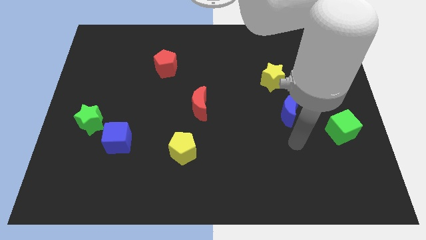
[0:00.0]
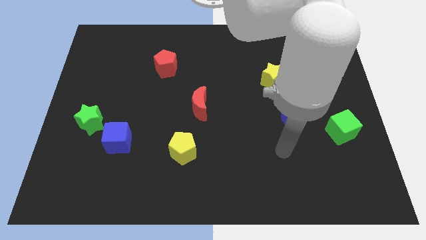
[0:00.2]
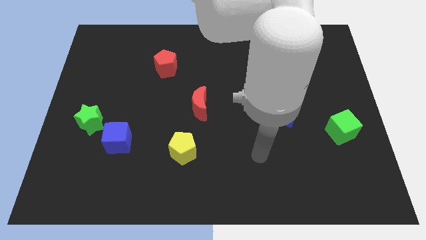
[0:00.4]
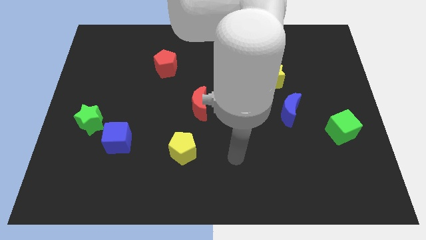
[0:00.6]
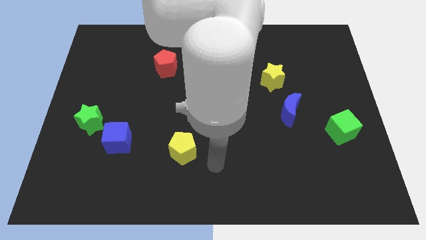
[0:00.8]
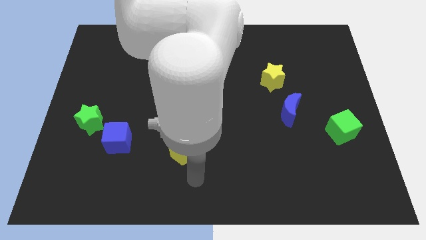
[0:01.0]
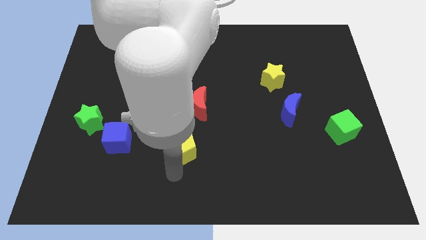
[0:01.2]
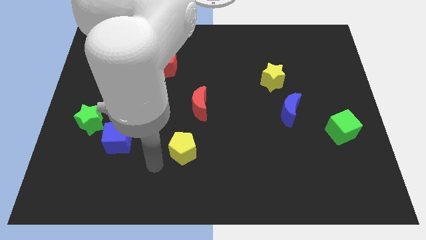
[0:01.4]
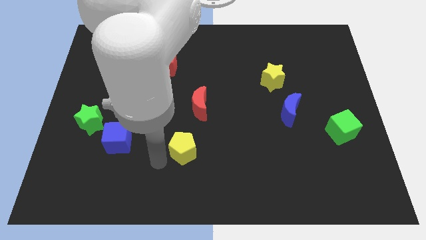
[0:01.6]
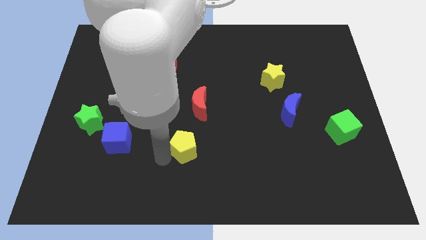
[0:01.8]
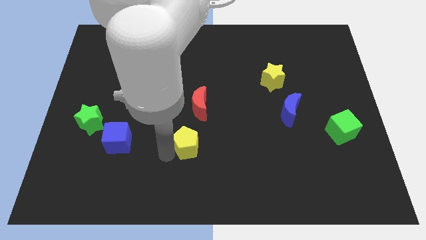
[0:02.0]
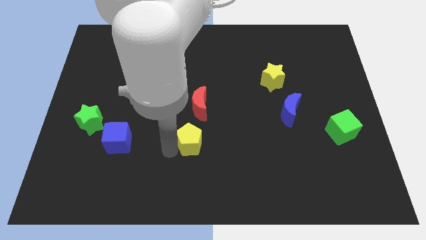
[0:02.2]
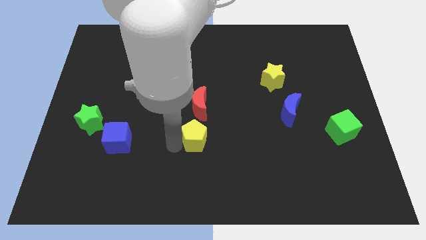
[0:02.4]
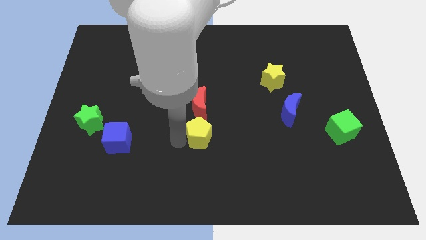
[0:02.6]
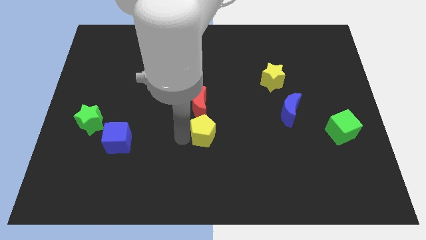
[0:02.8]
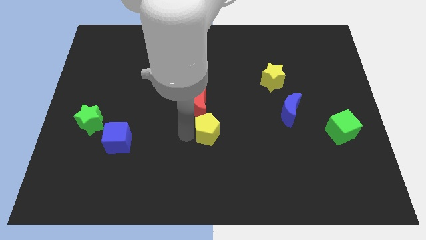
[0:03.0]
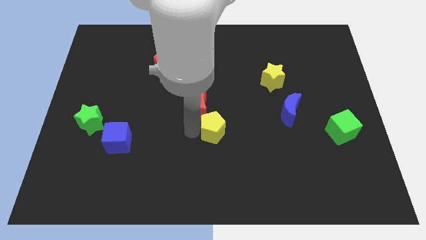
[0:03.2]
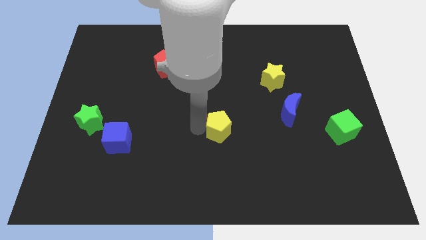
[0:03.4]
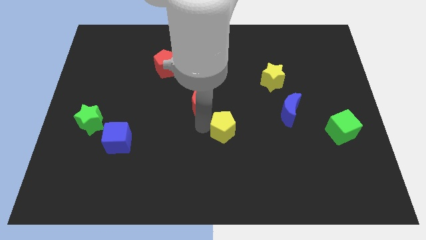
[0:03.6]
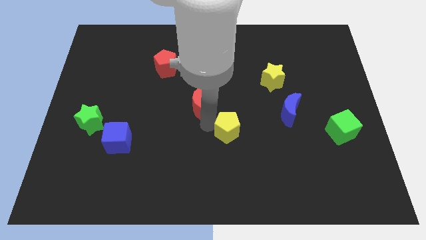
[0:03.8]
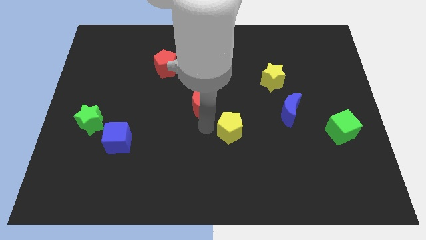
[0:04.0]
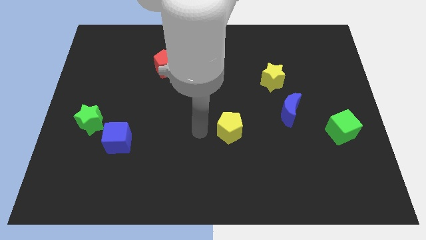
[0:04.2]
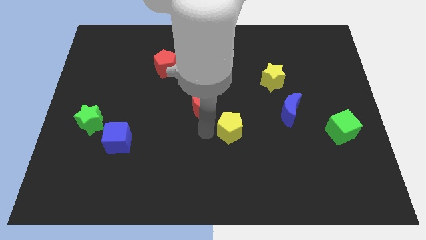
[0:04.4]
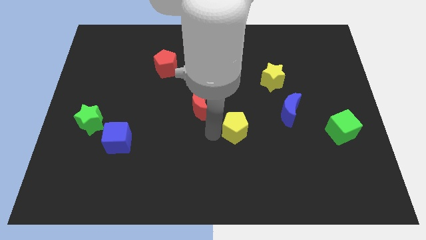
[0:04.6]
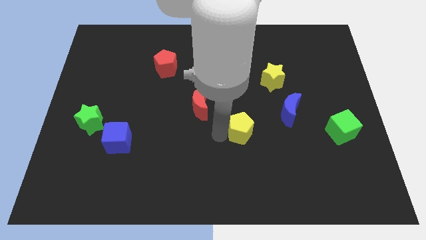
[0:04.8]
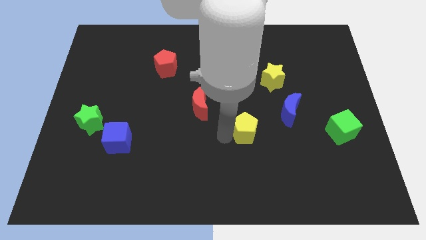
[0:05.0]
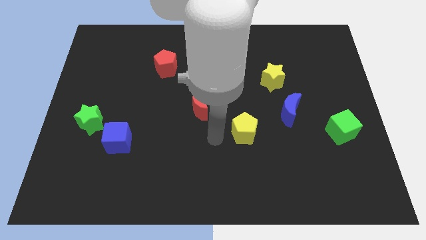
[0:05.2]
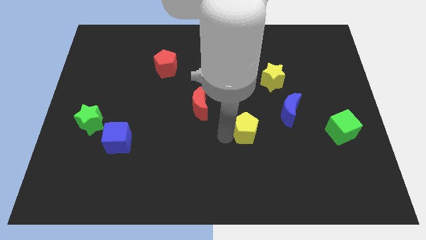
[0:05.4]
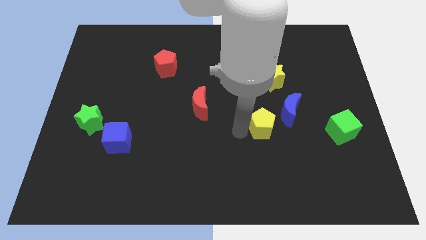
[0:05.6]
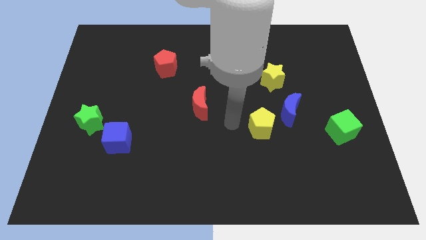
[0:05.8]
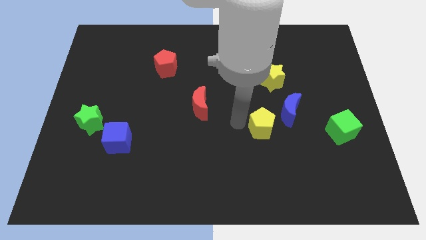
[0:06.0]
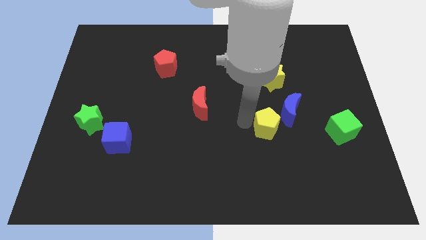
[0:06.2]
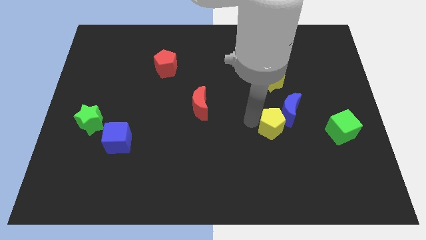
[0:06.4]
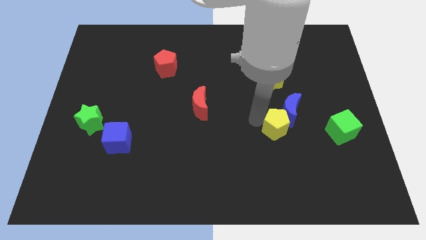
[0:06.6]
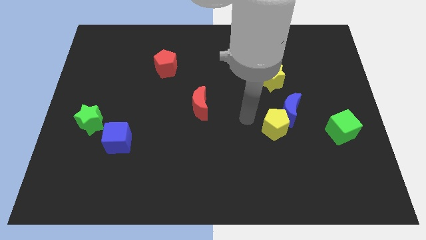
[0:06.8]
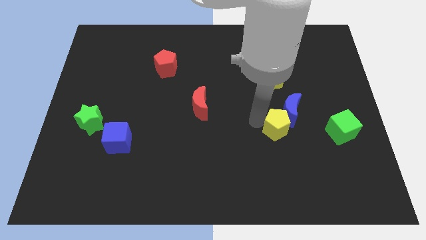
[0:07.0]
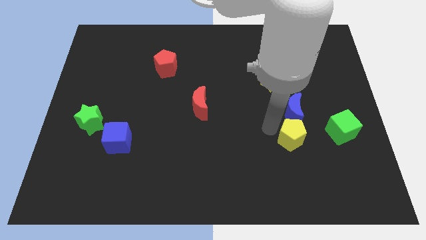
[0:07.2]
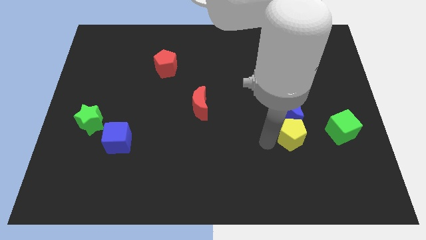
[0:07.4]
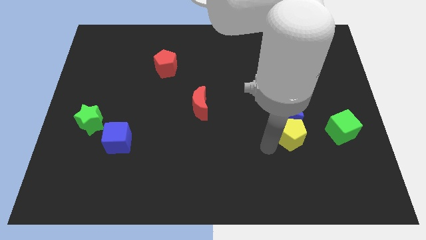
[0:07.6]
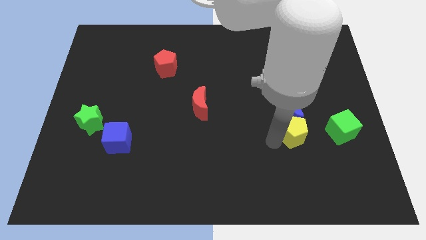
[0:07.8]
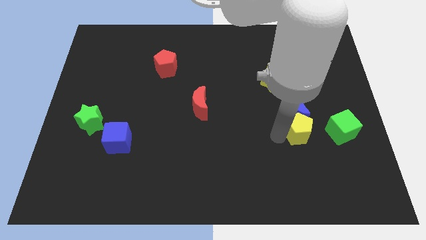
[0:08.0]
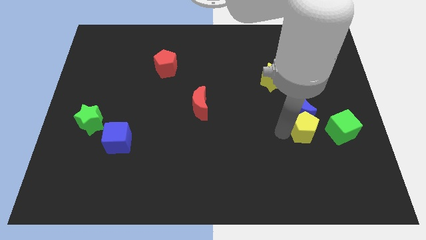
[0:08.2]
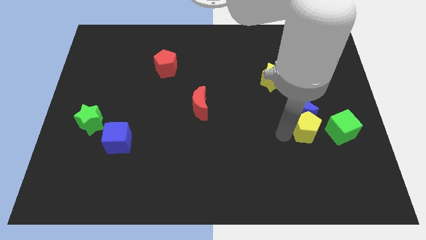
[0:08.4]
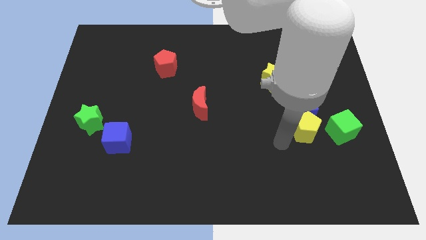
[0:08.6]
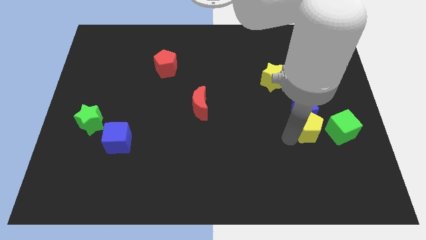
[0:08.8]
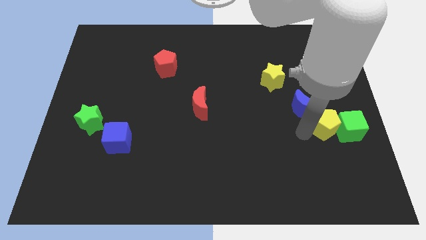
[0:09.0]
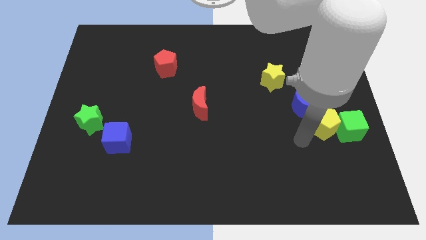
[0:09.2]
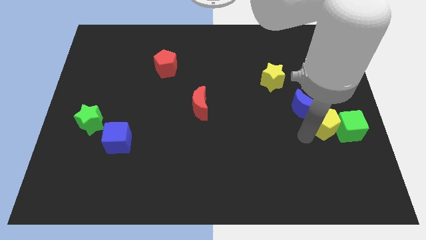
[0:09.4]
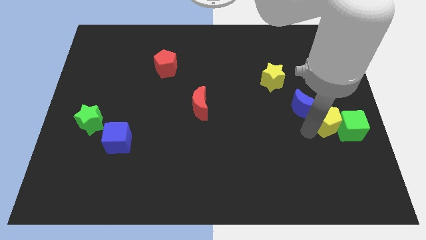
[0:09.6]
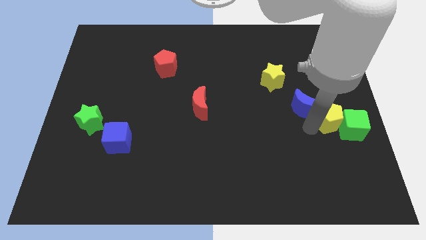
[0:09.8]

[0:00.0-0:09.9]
push the yellow pentagon to the right side

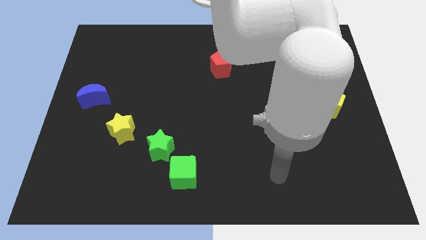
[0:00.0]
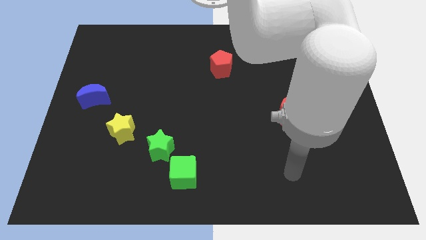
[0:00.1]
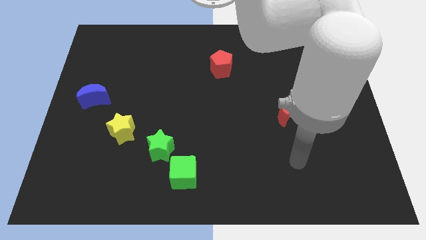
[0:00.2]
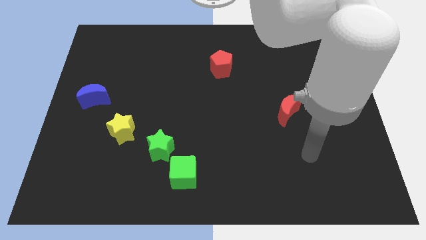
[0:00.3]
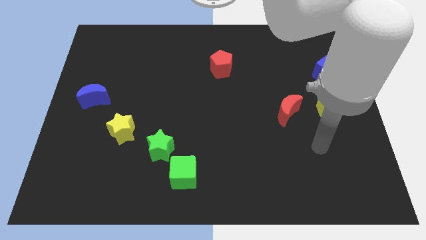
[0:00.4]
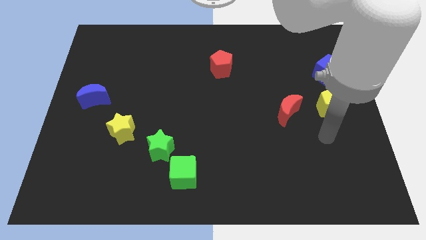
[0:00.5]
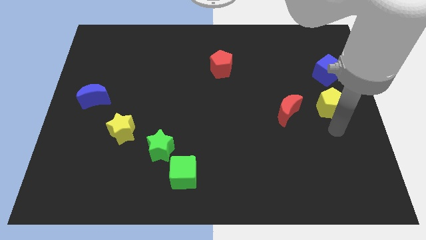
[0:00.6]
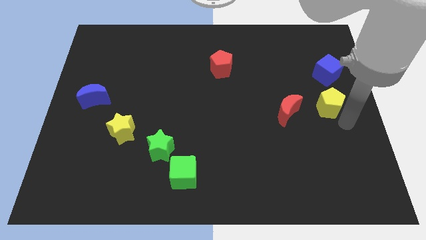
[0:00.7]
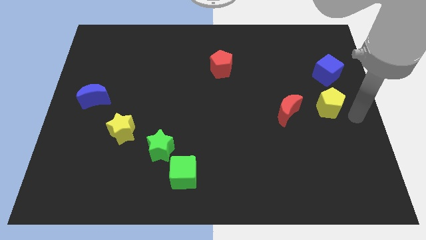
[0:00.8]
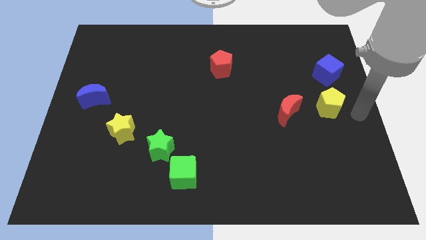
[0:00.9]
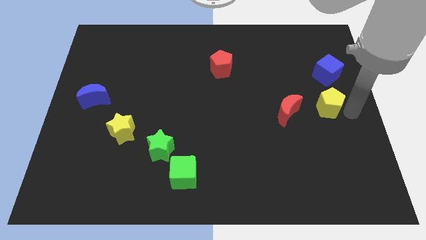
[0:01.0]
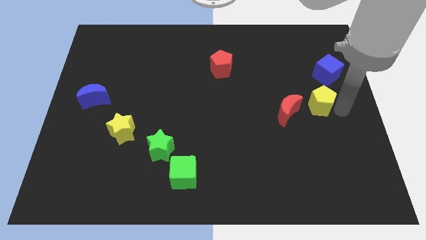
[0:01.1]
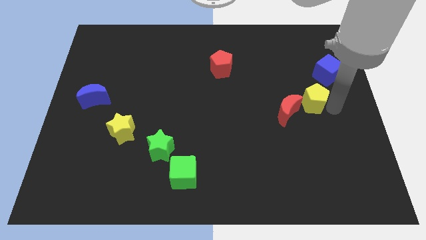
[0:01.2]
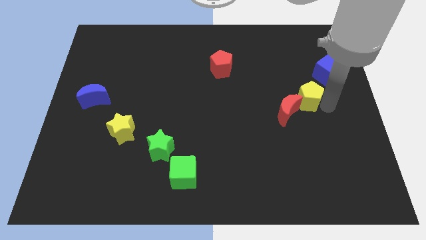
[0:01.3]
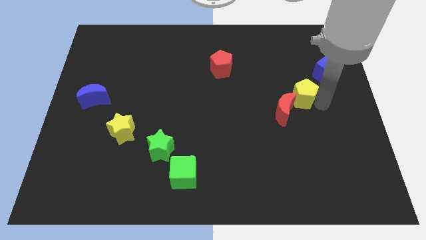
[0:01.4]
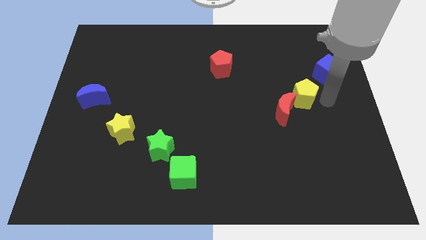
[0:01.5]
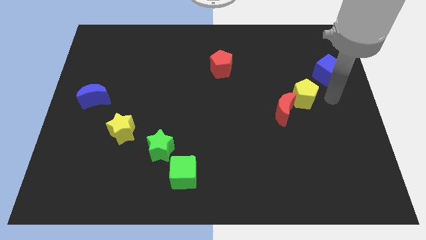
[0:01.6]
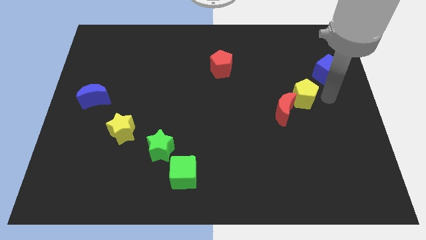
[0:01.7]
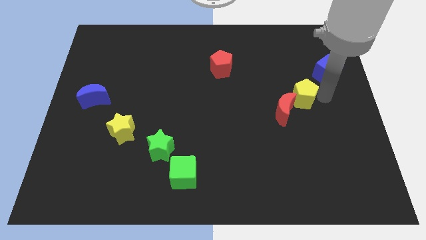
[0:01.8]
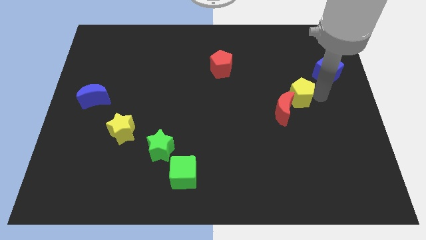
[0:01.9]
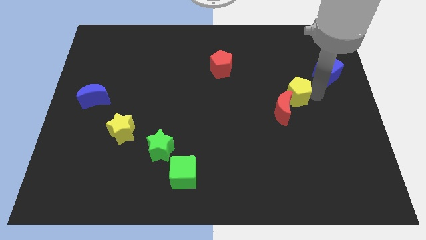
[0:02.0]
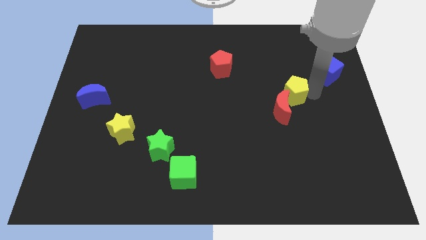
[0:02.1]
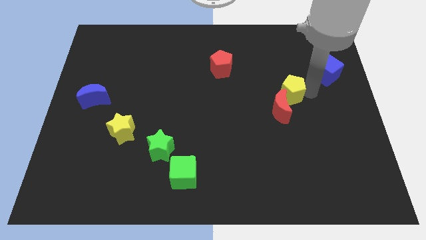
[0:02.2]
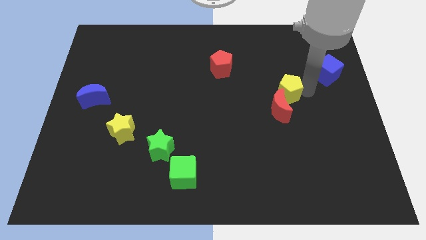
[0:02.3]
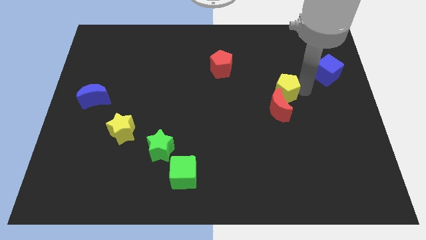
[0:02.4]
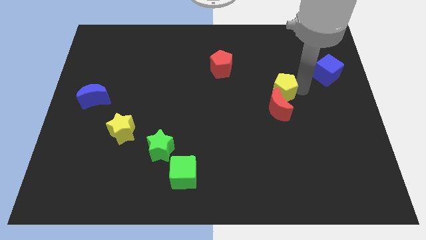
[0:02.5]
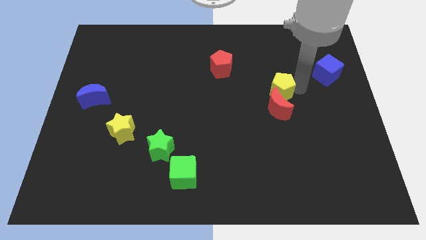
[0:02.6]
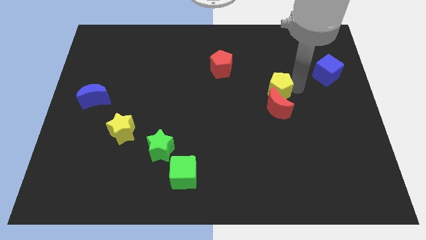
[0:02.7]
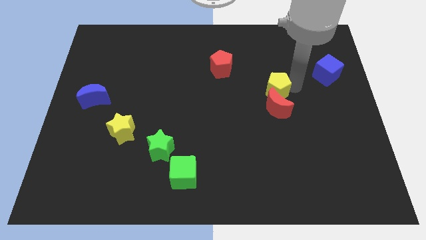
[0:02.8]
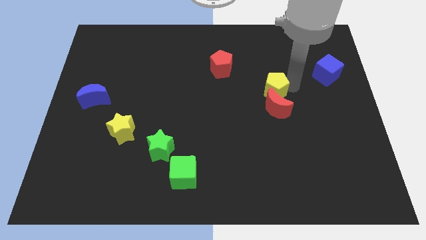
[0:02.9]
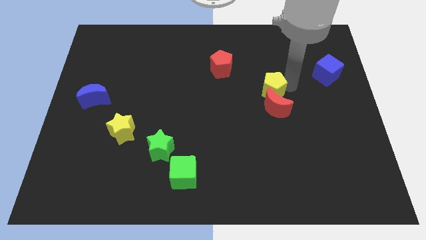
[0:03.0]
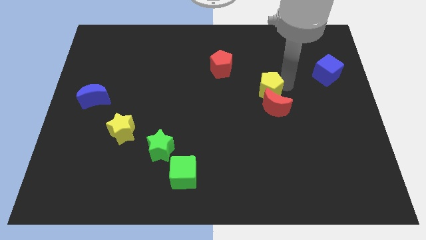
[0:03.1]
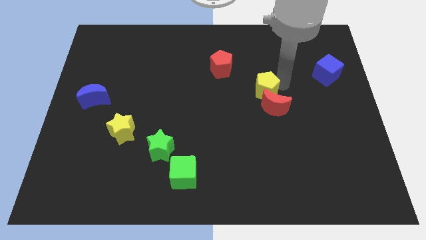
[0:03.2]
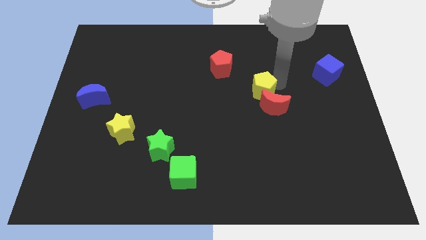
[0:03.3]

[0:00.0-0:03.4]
push the yellow pentagon to the middle
